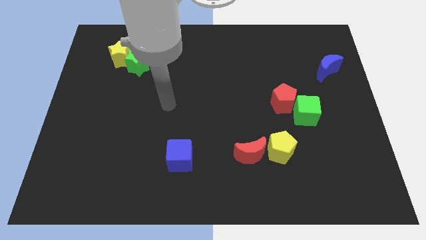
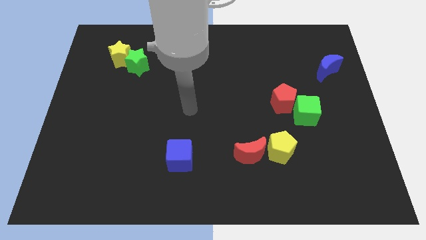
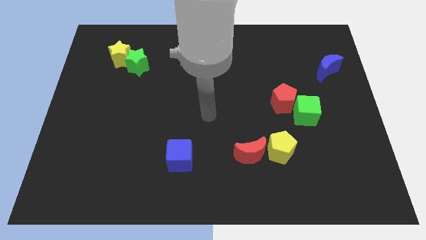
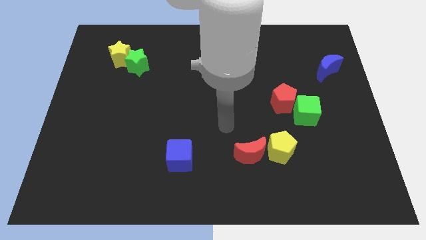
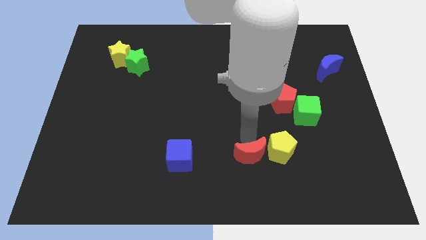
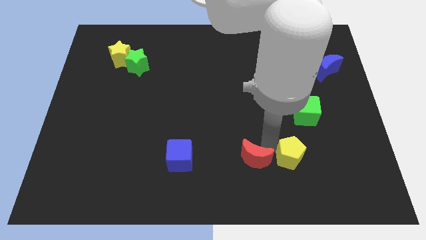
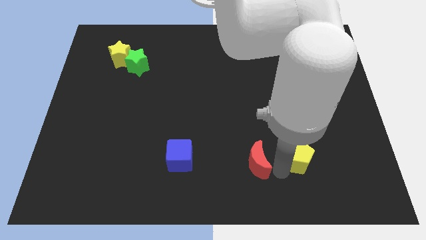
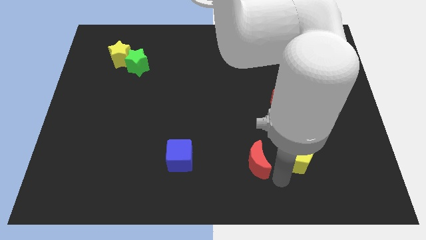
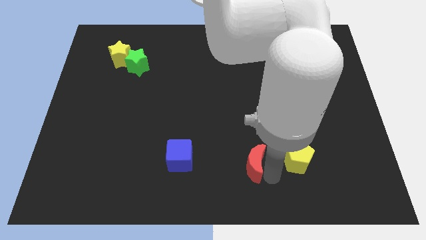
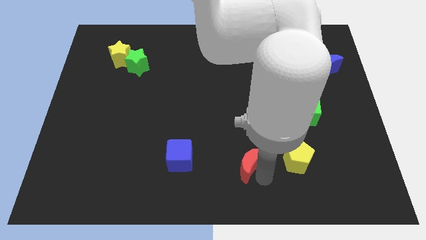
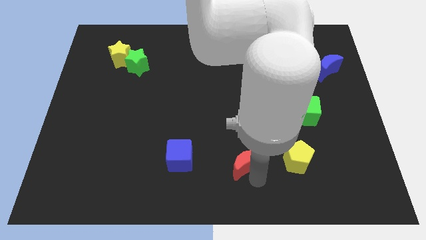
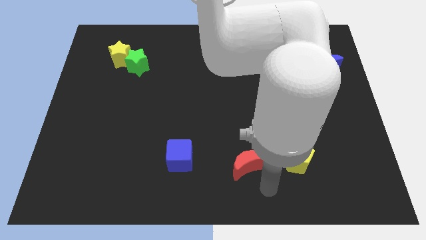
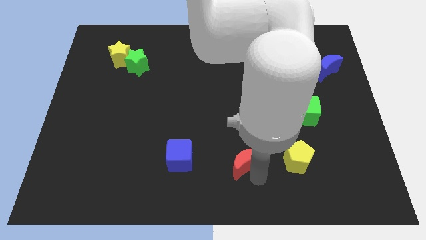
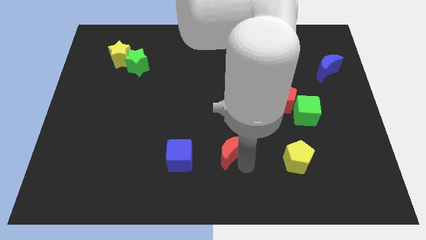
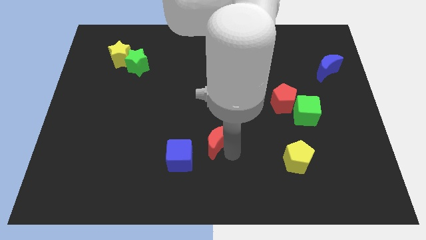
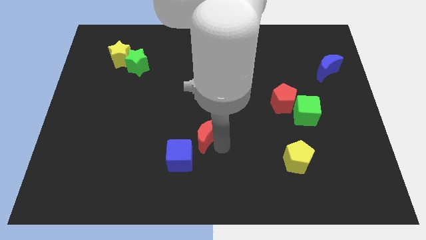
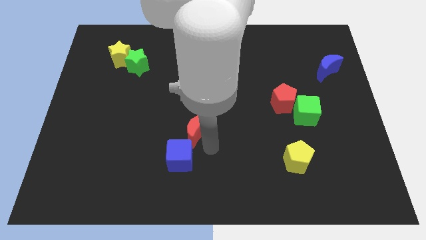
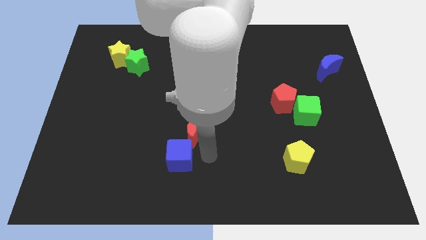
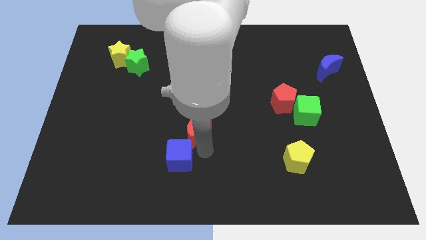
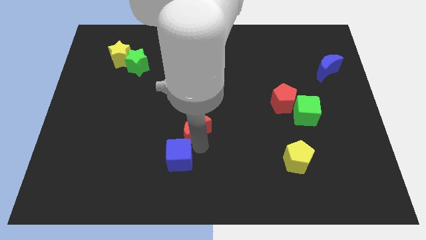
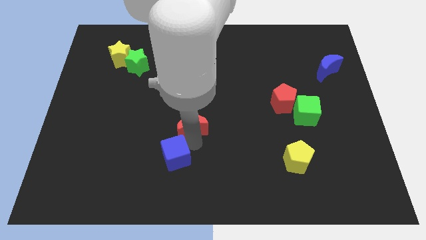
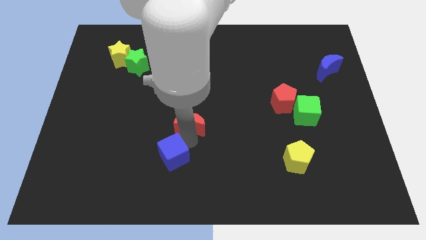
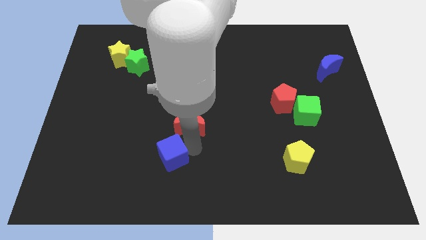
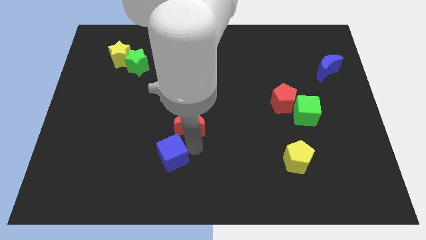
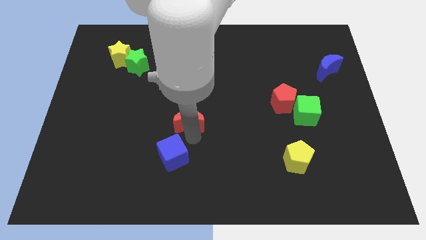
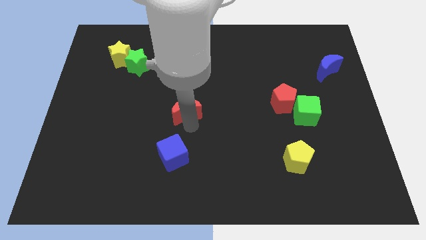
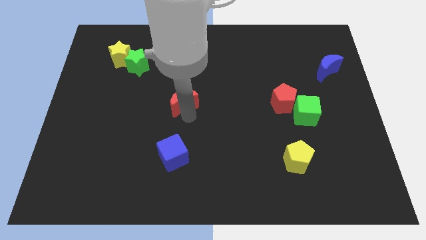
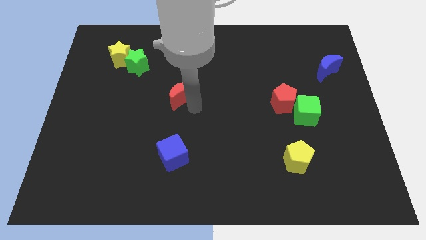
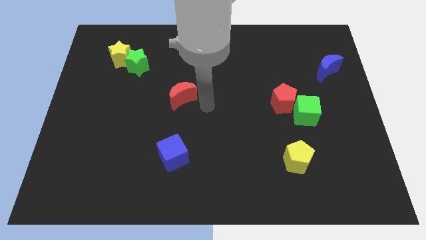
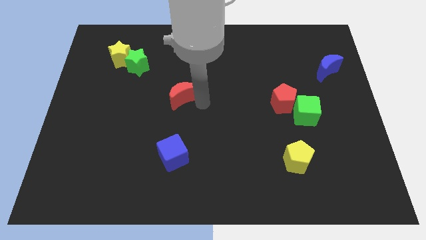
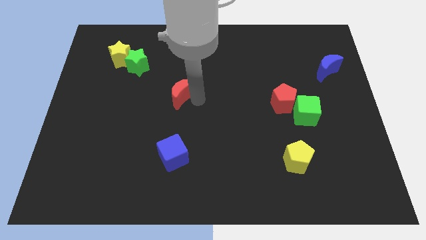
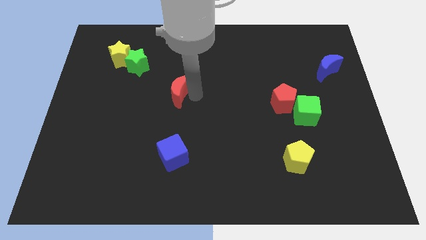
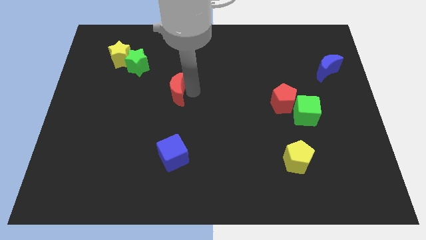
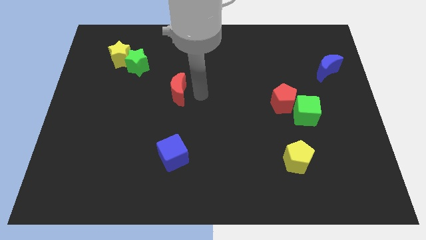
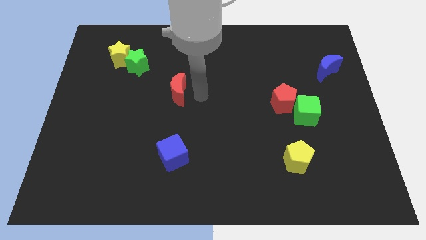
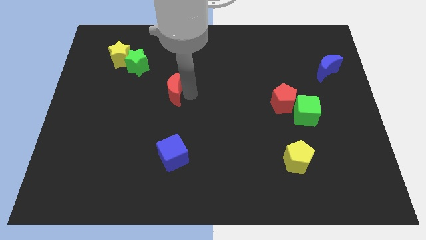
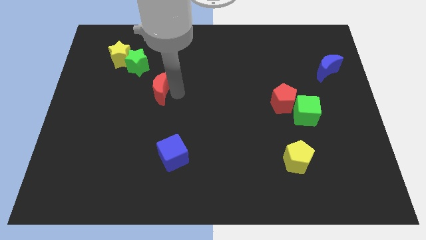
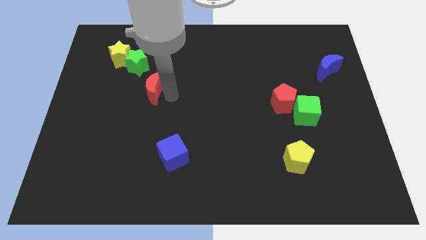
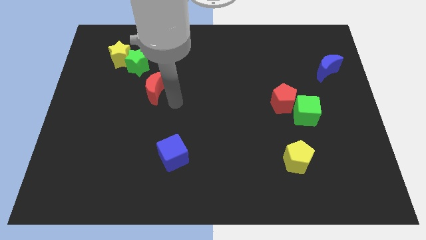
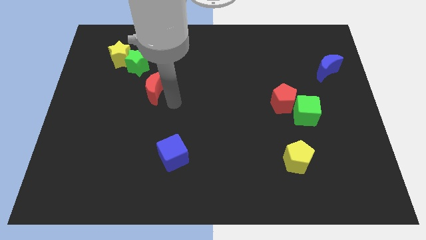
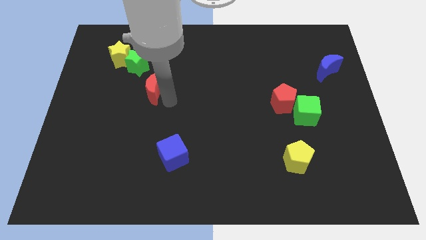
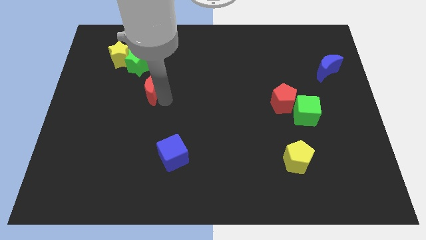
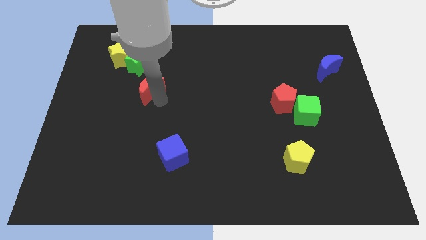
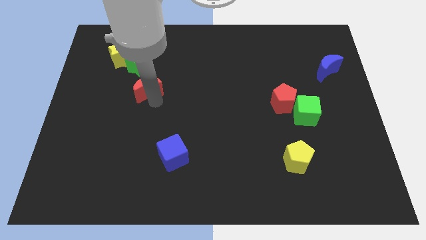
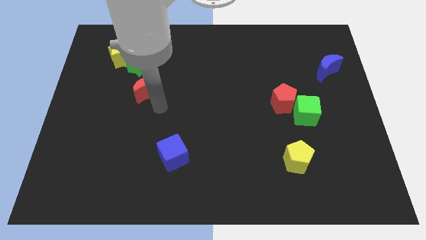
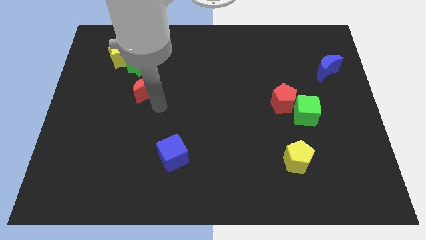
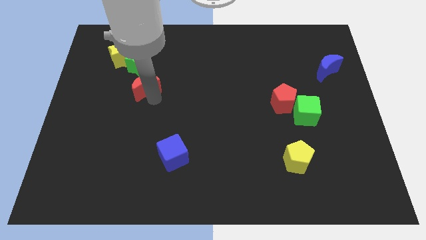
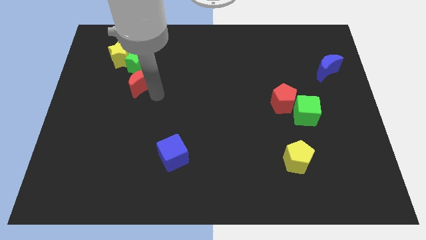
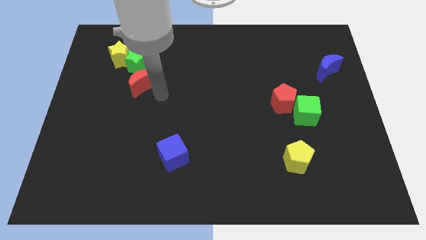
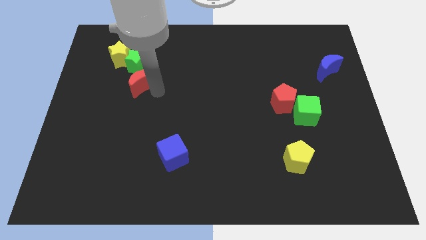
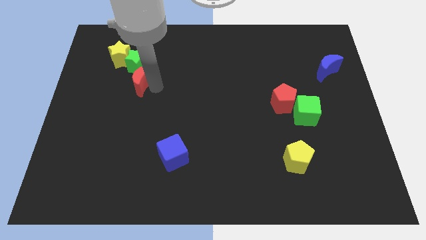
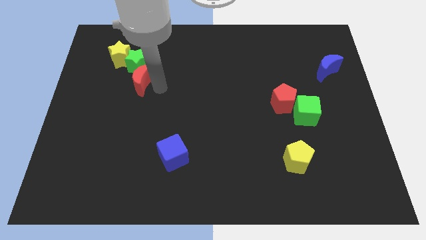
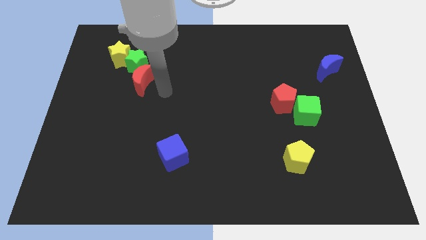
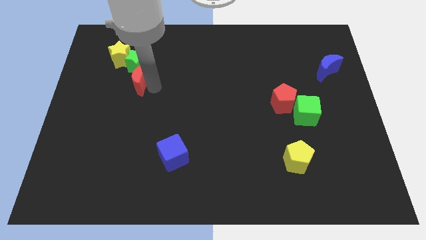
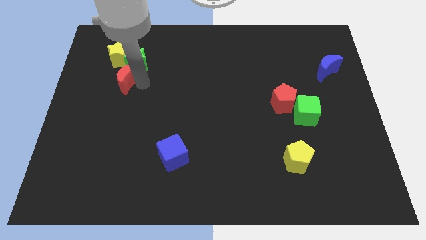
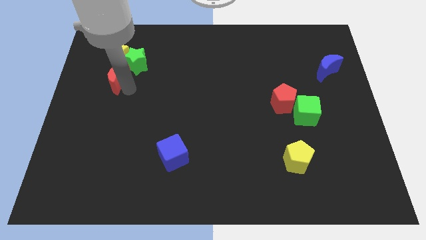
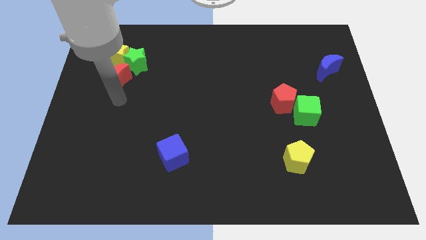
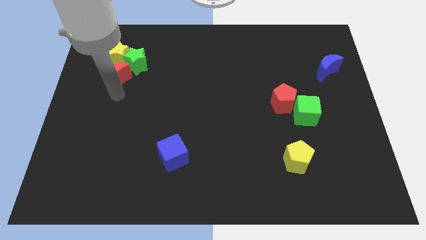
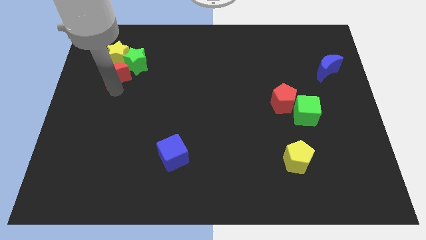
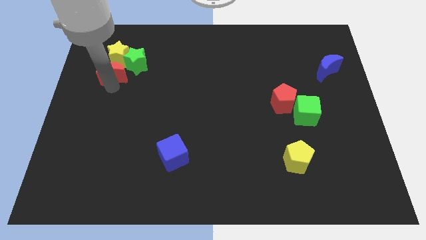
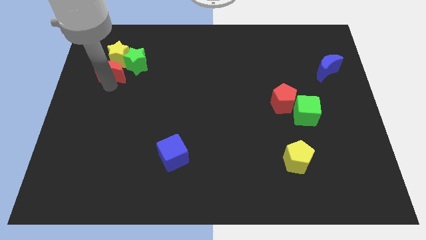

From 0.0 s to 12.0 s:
put the red moon to the yellow star

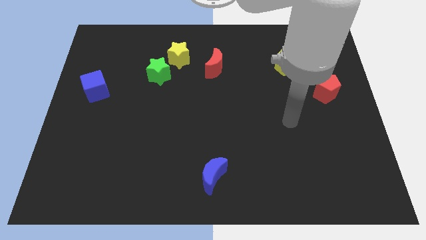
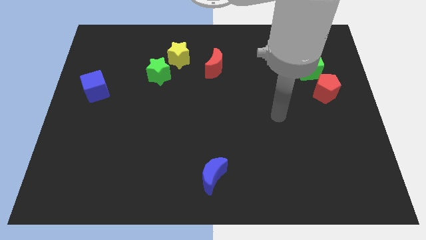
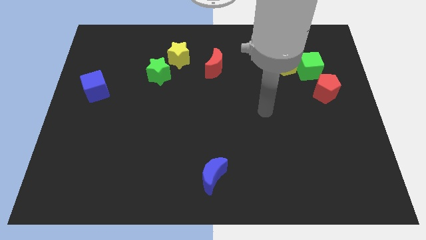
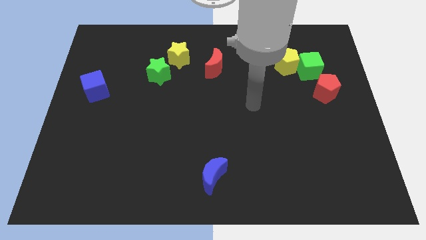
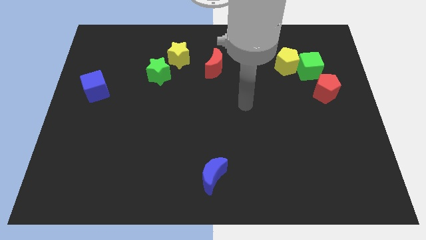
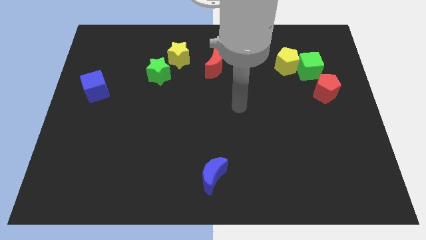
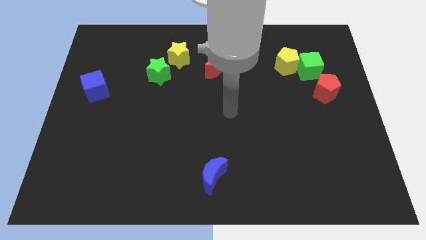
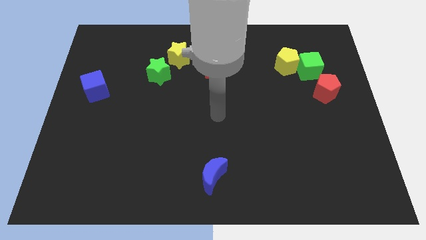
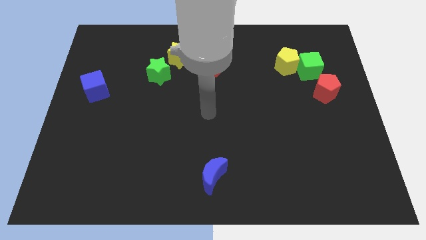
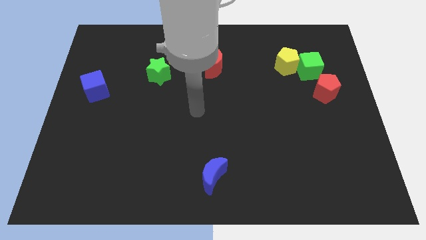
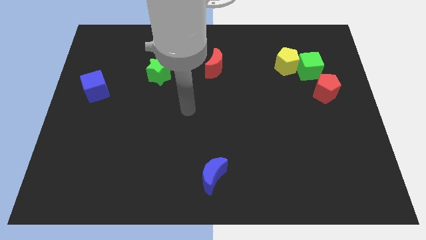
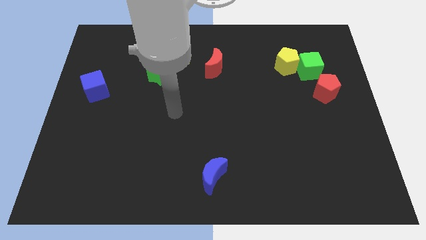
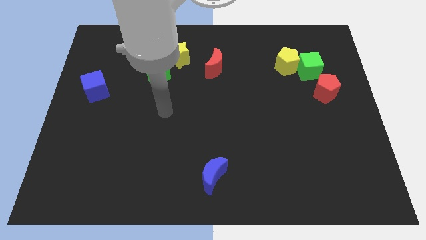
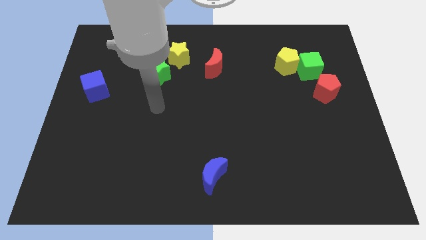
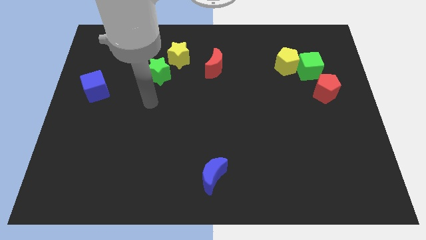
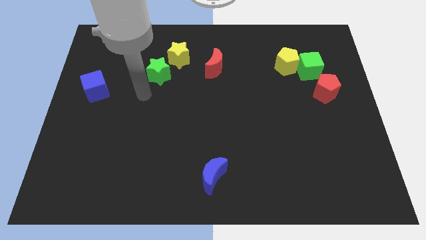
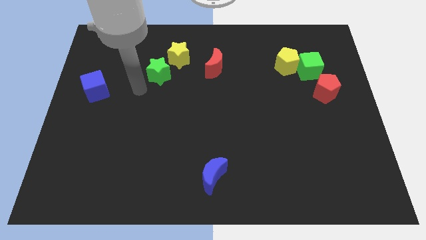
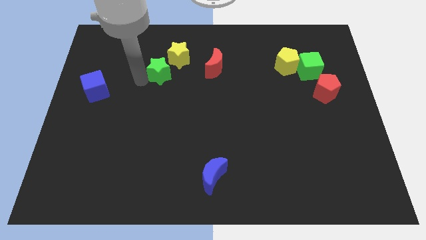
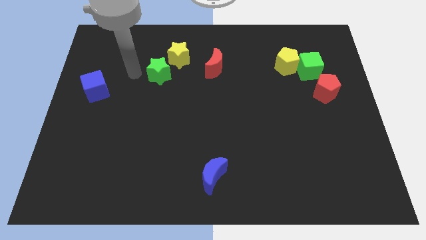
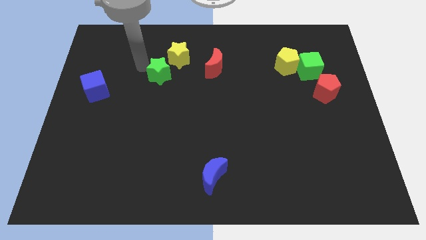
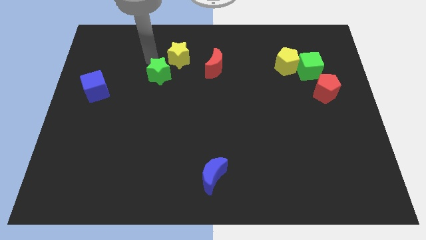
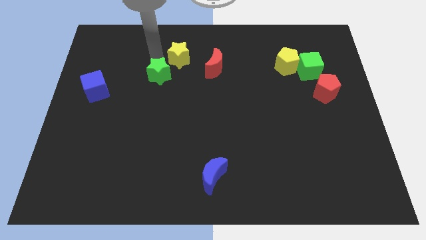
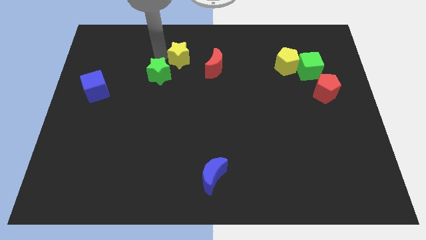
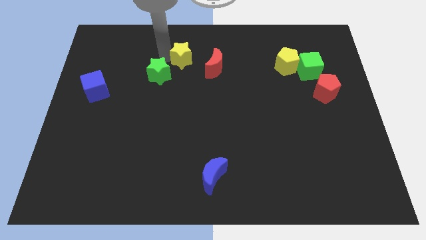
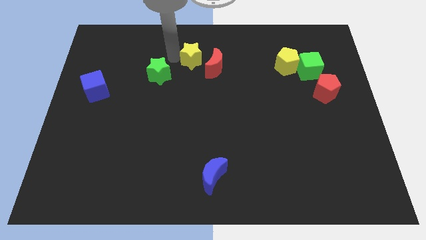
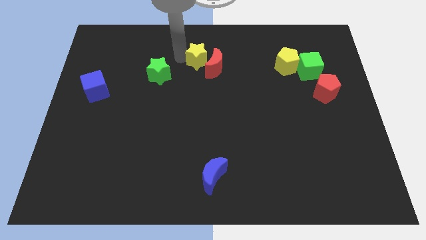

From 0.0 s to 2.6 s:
put the yellow star to the red moon
